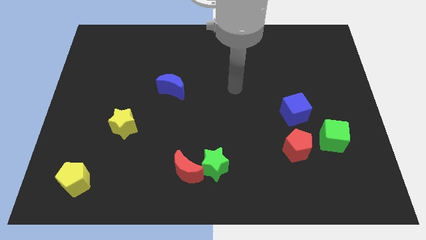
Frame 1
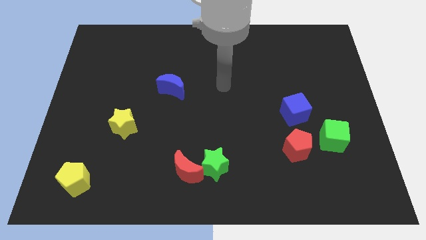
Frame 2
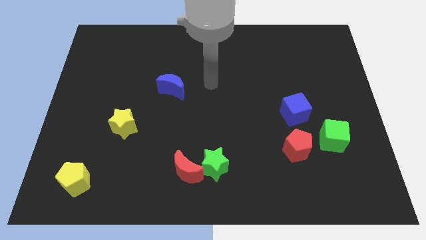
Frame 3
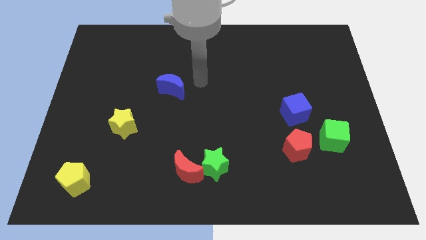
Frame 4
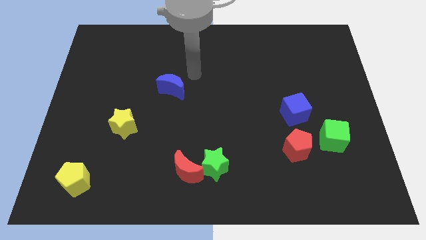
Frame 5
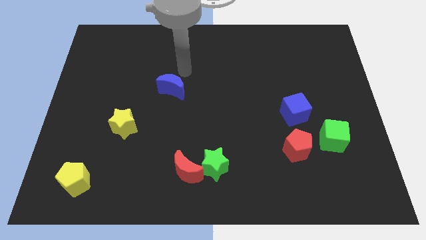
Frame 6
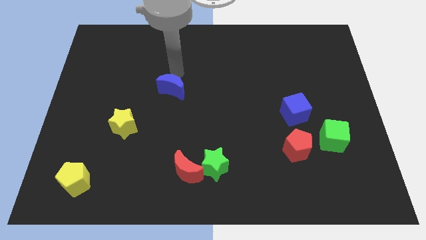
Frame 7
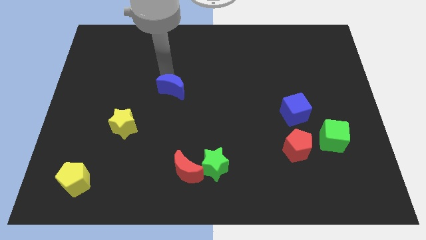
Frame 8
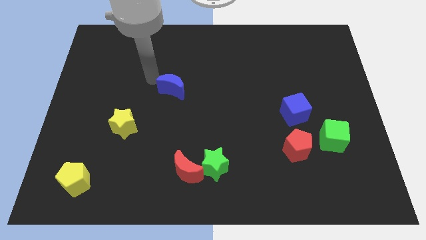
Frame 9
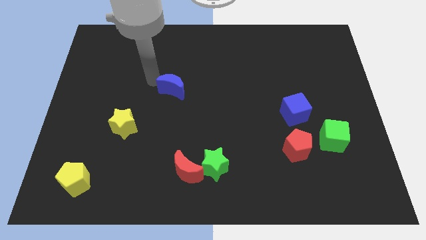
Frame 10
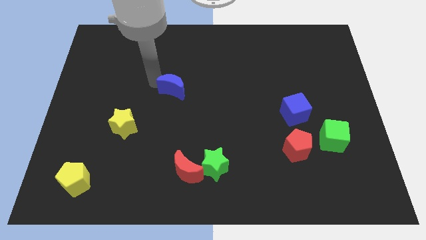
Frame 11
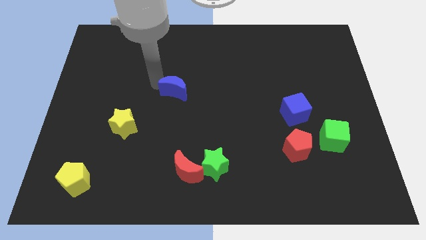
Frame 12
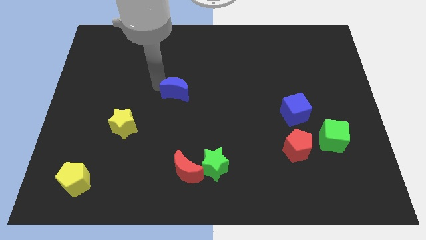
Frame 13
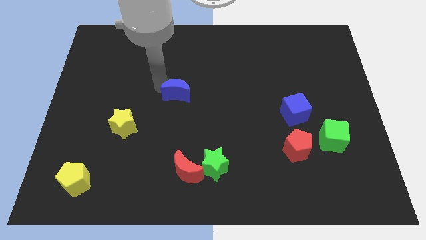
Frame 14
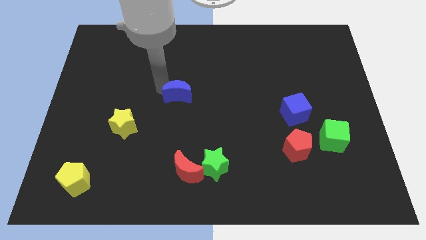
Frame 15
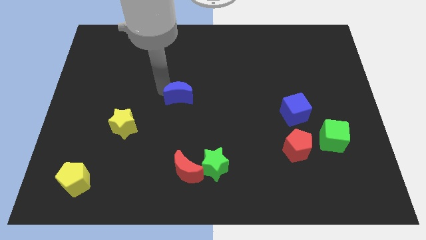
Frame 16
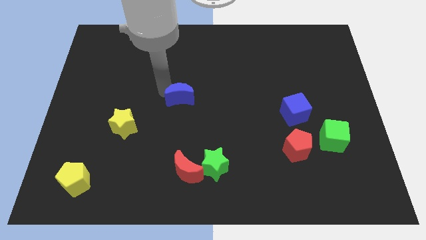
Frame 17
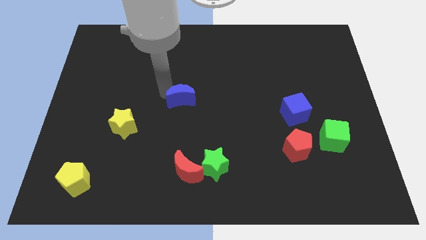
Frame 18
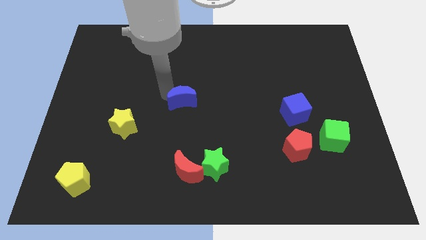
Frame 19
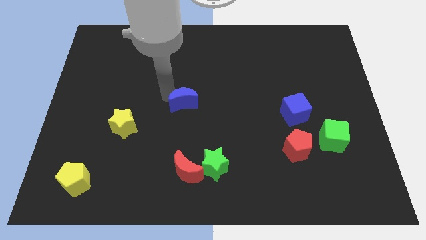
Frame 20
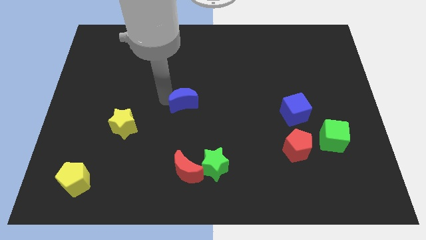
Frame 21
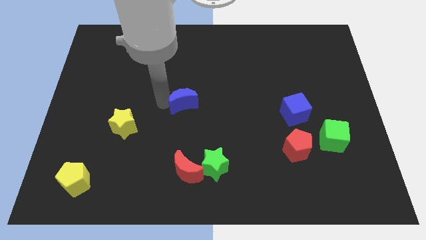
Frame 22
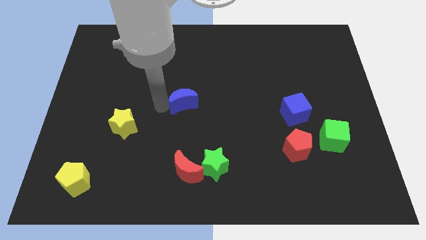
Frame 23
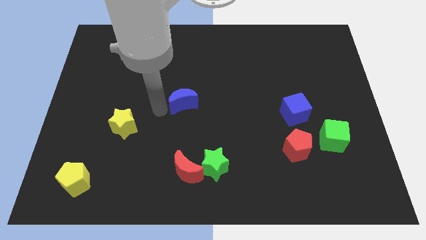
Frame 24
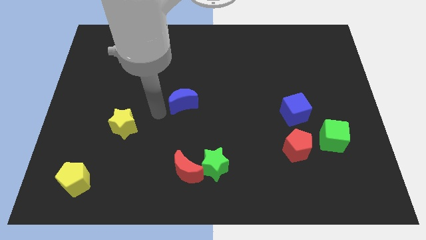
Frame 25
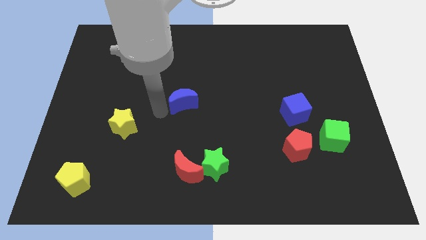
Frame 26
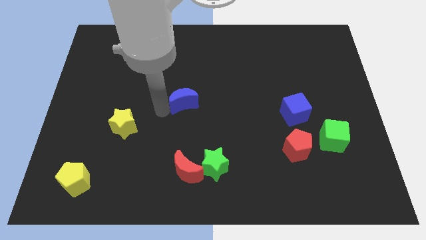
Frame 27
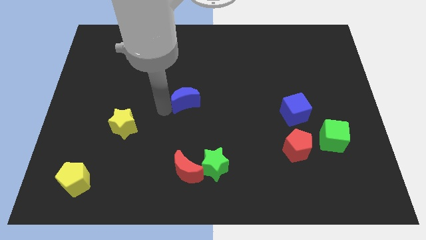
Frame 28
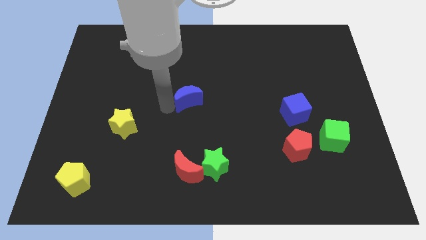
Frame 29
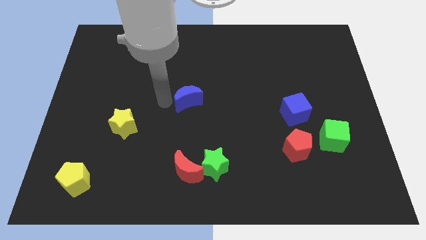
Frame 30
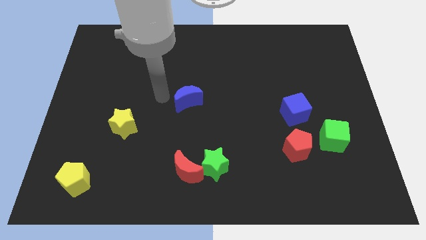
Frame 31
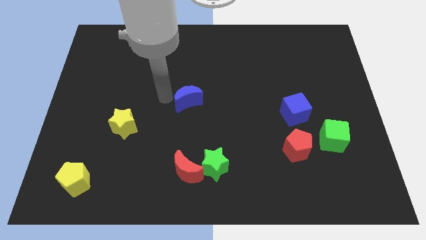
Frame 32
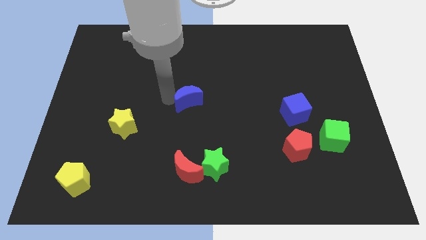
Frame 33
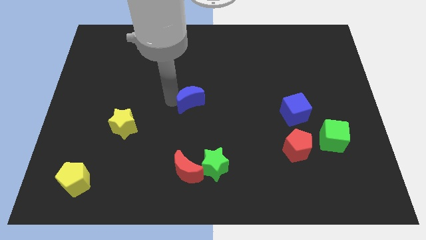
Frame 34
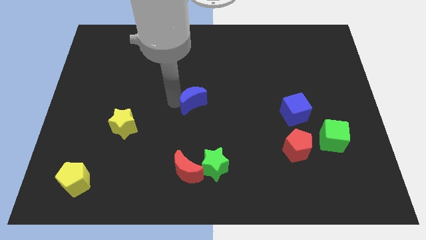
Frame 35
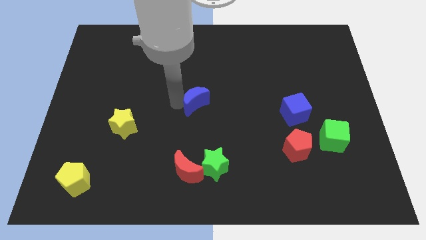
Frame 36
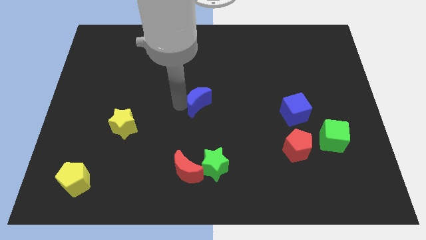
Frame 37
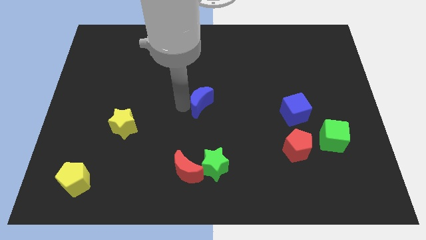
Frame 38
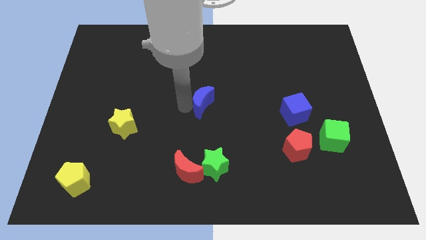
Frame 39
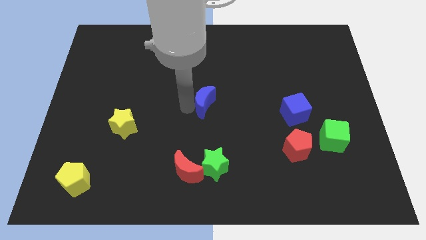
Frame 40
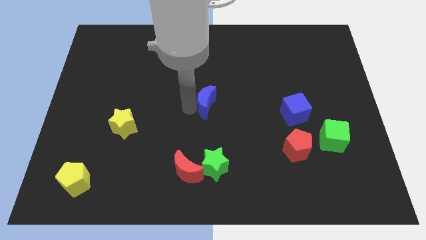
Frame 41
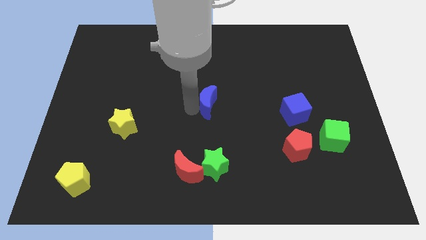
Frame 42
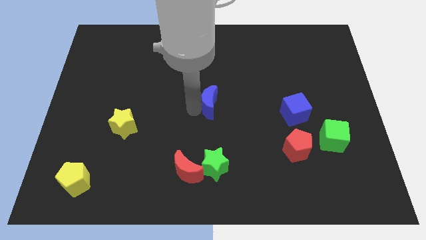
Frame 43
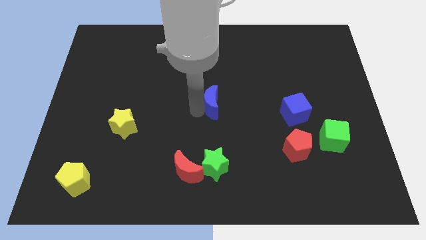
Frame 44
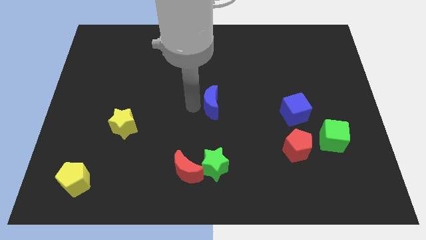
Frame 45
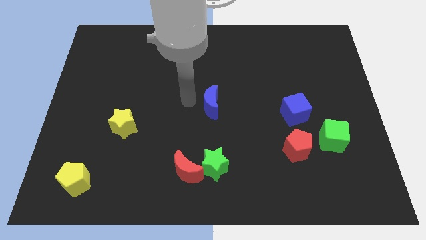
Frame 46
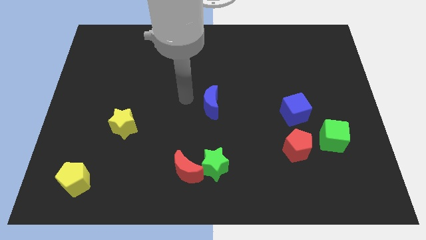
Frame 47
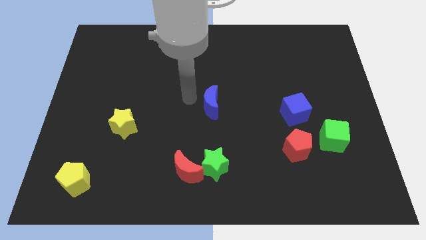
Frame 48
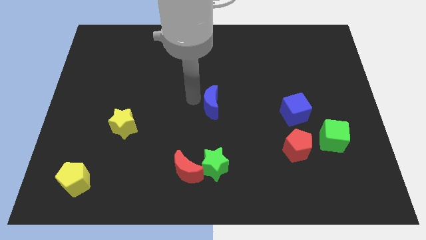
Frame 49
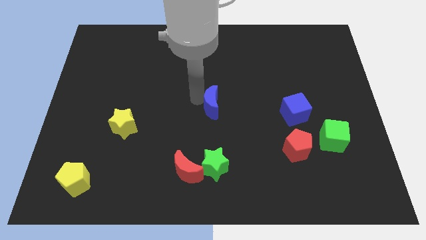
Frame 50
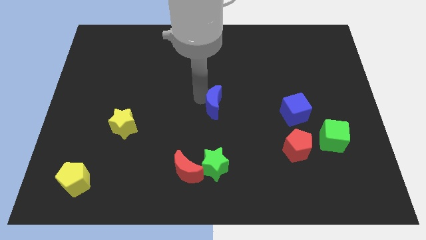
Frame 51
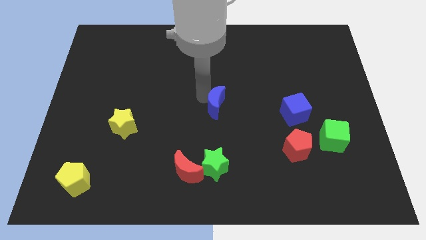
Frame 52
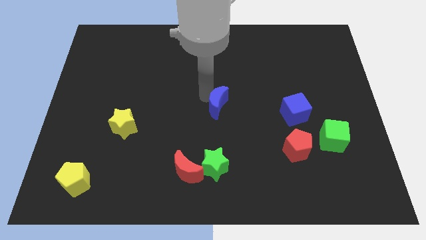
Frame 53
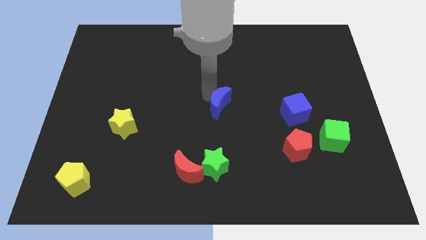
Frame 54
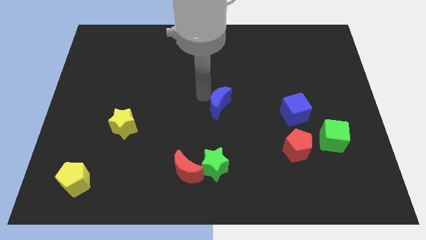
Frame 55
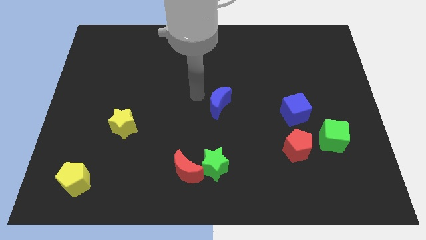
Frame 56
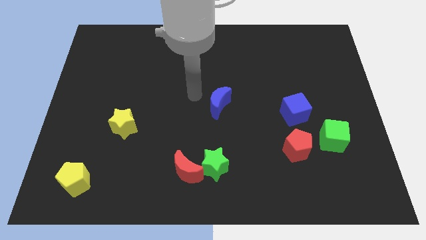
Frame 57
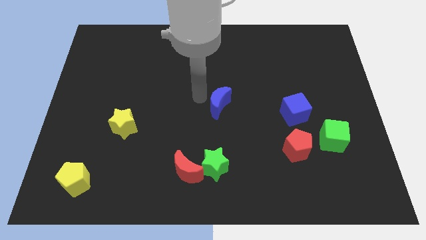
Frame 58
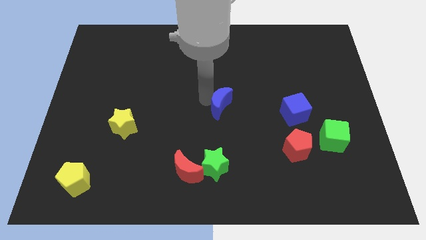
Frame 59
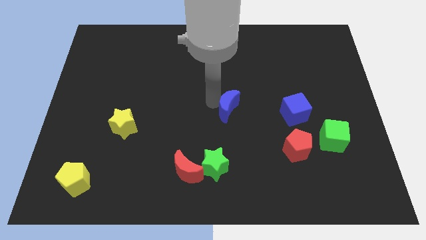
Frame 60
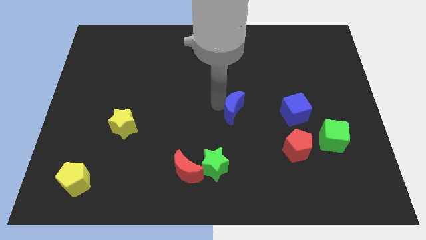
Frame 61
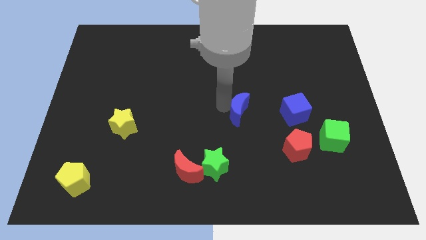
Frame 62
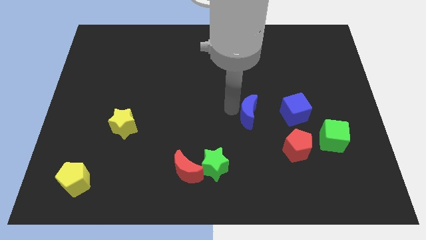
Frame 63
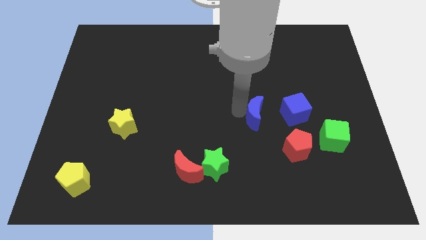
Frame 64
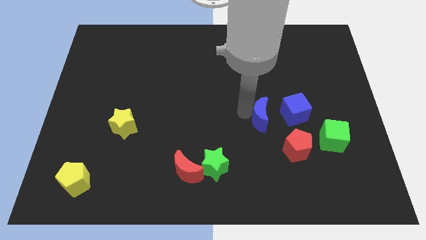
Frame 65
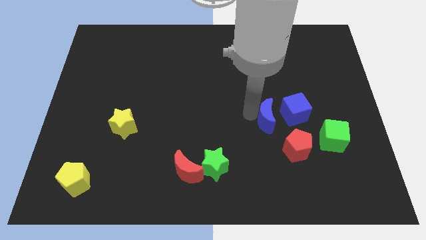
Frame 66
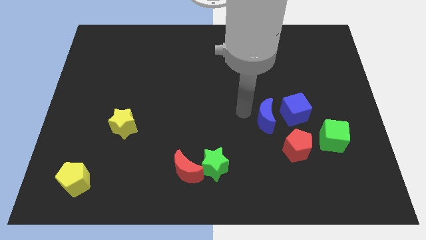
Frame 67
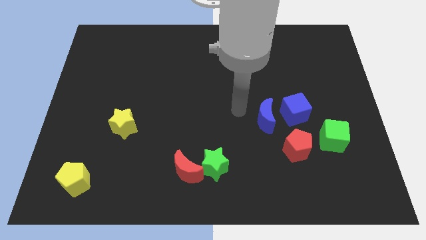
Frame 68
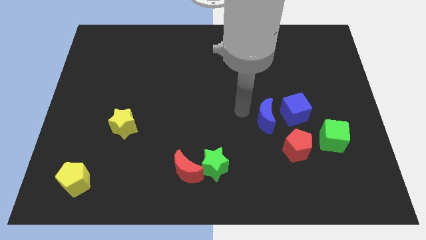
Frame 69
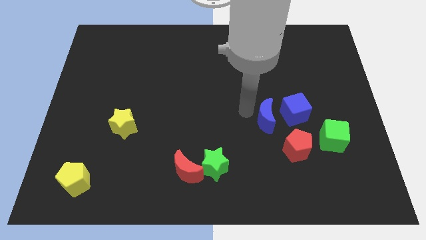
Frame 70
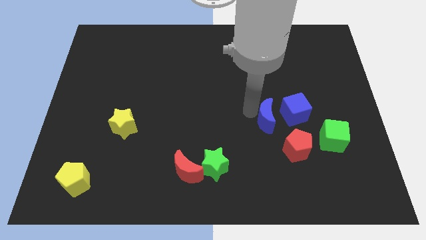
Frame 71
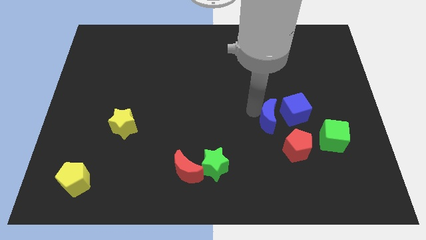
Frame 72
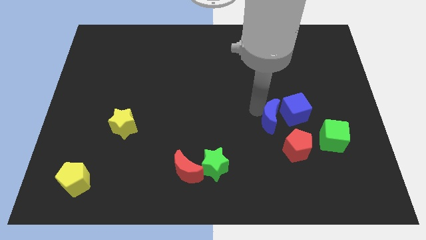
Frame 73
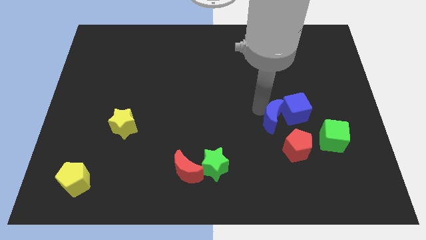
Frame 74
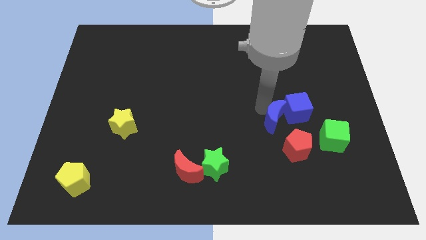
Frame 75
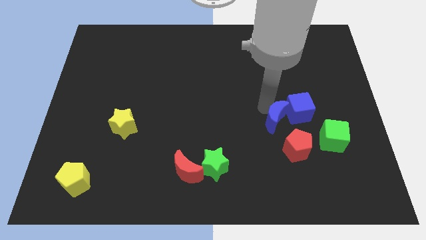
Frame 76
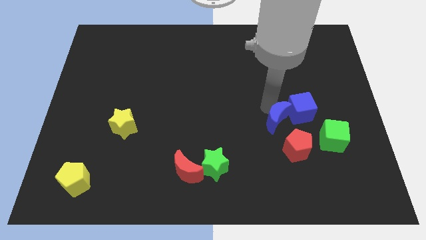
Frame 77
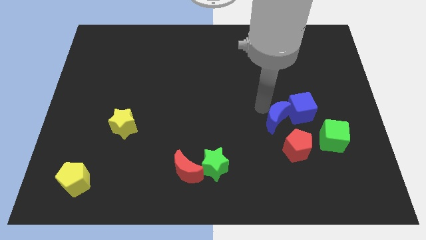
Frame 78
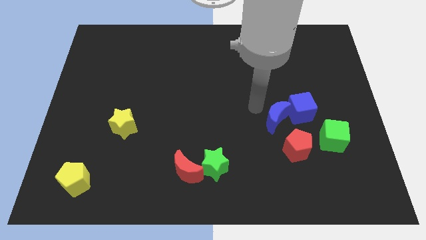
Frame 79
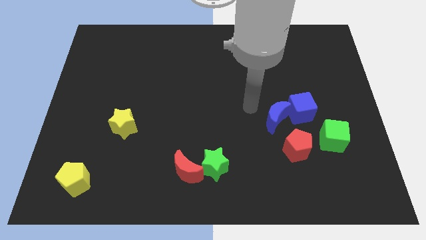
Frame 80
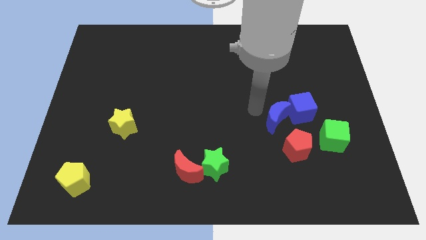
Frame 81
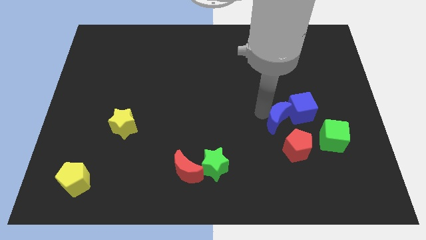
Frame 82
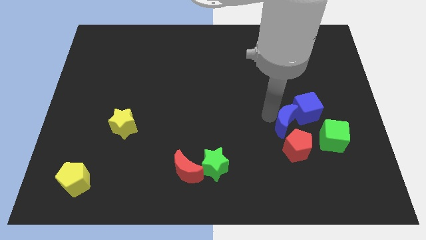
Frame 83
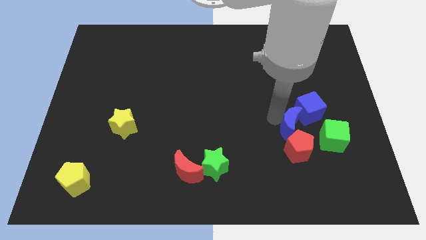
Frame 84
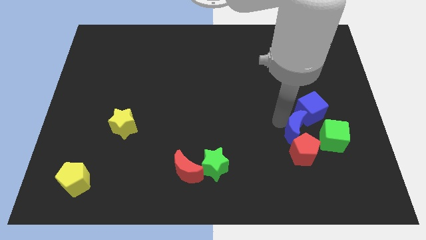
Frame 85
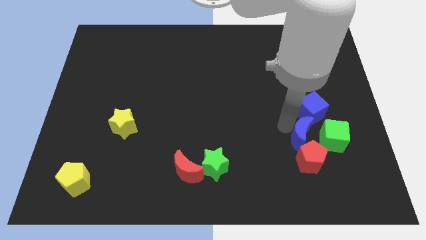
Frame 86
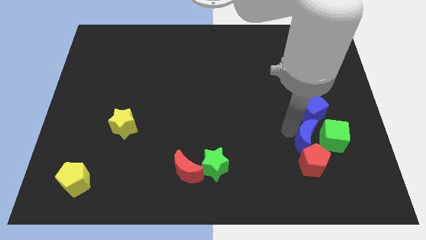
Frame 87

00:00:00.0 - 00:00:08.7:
slide the blue moon towards the green cube
